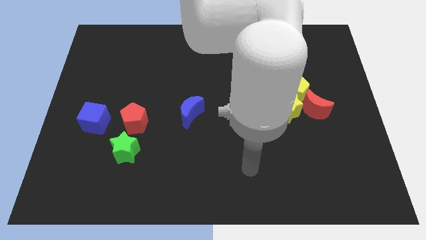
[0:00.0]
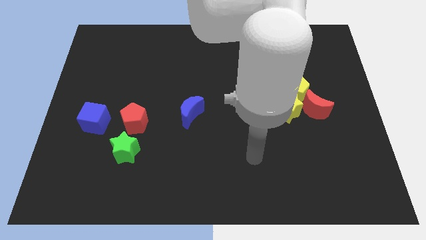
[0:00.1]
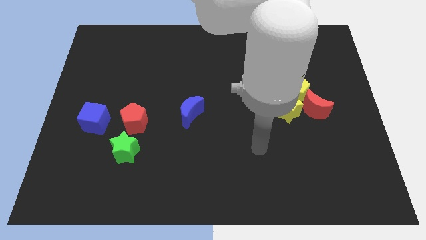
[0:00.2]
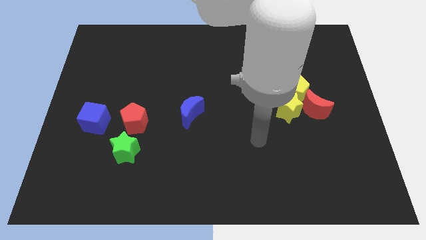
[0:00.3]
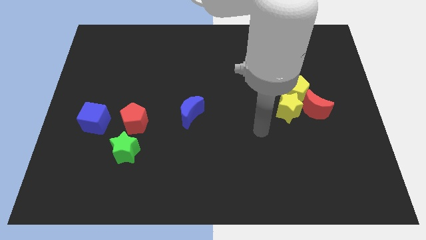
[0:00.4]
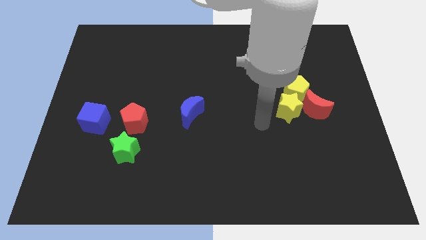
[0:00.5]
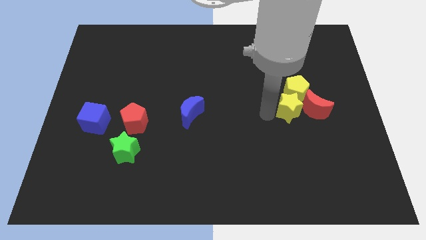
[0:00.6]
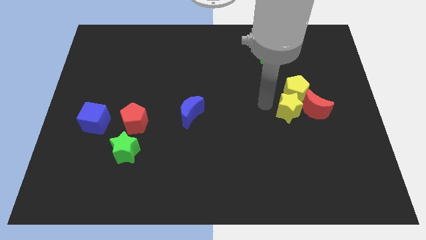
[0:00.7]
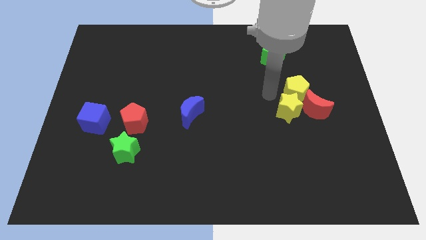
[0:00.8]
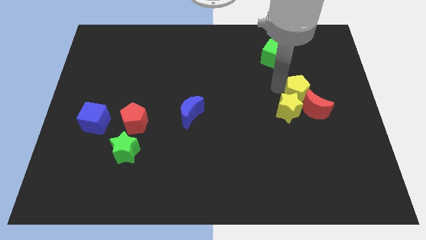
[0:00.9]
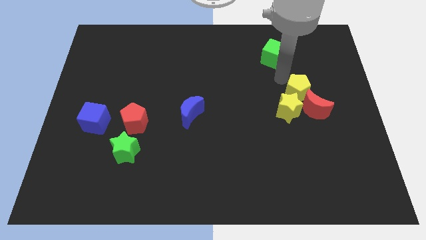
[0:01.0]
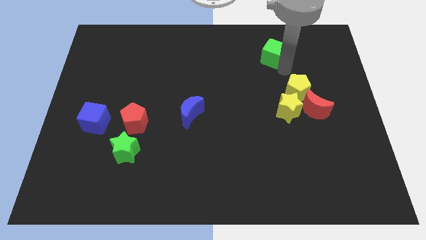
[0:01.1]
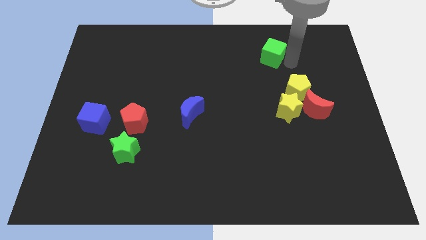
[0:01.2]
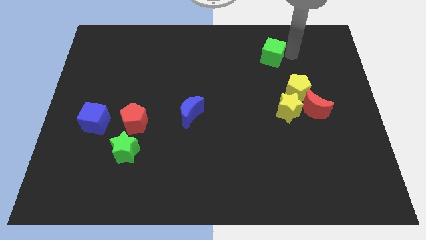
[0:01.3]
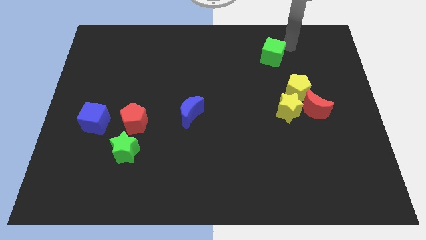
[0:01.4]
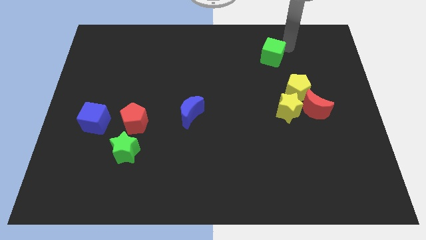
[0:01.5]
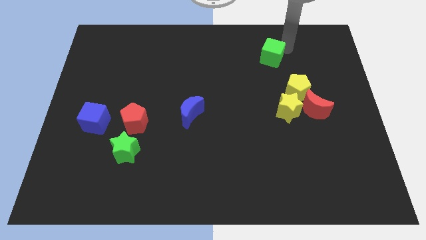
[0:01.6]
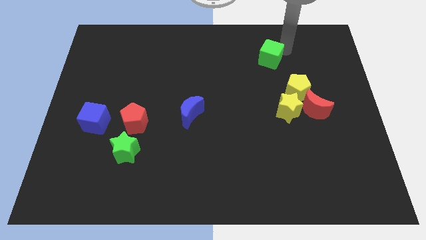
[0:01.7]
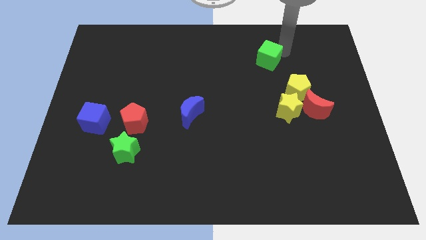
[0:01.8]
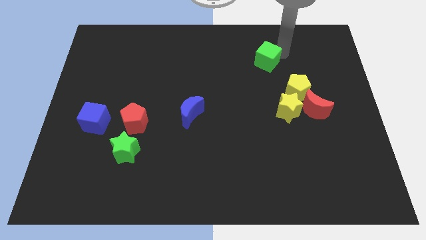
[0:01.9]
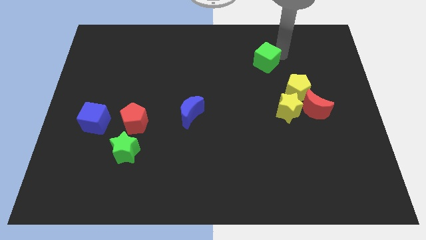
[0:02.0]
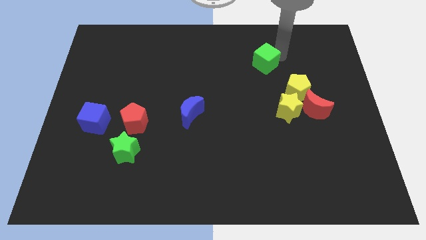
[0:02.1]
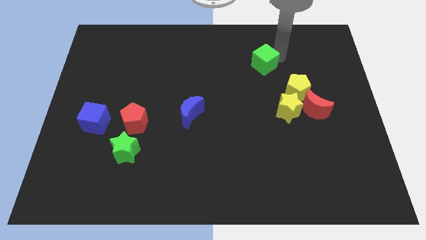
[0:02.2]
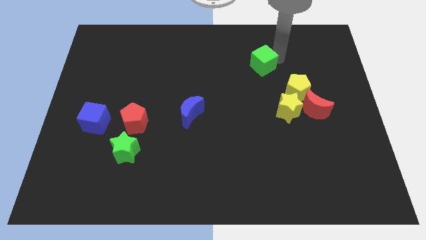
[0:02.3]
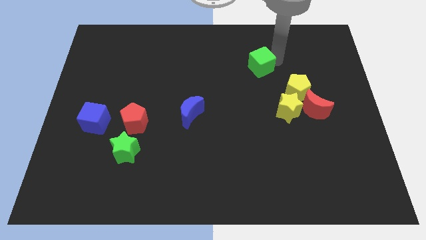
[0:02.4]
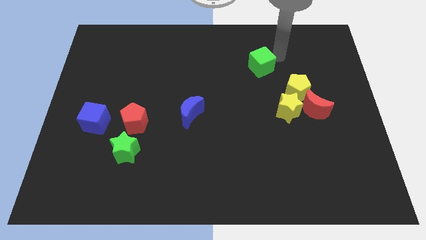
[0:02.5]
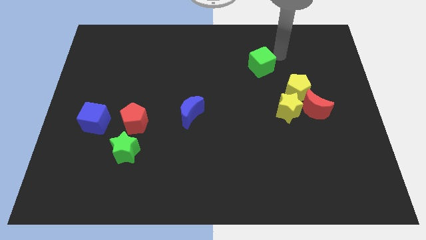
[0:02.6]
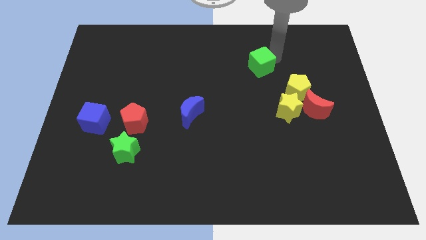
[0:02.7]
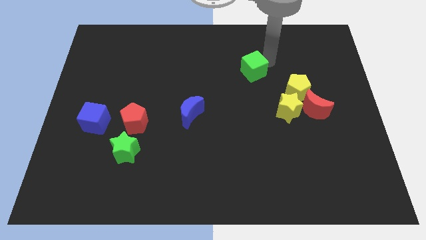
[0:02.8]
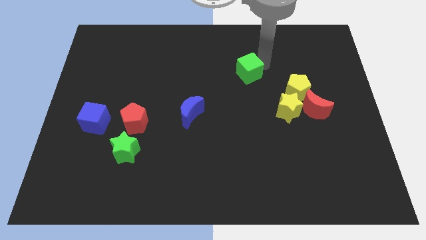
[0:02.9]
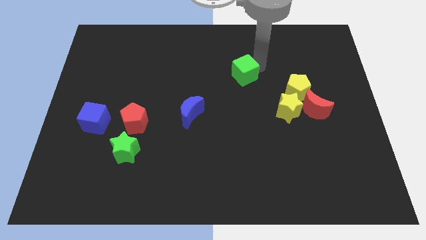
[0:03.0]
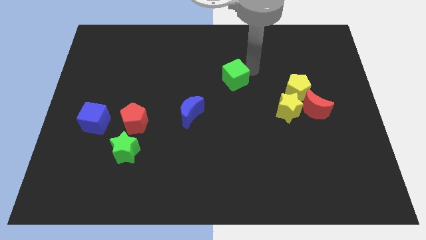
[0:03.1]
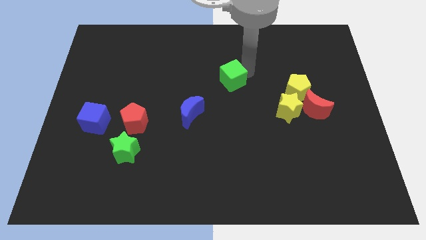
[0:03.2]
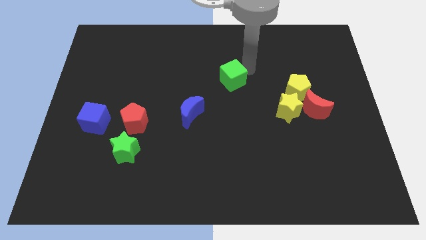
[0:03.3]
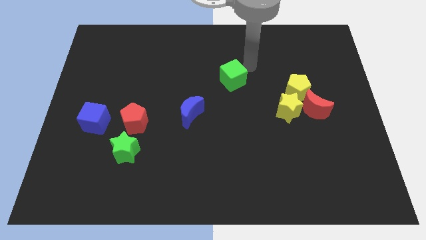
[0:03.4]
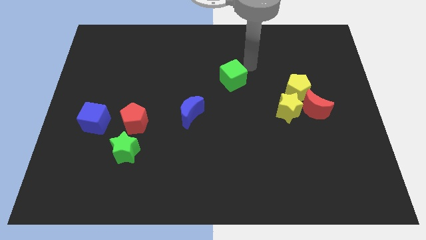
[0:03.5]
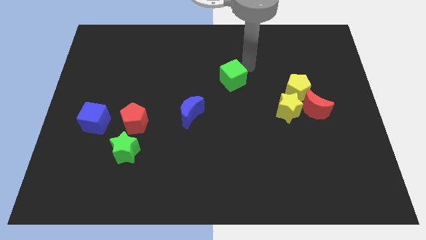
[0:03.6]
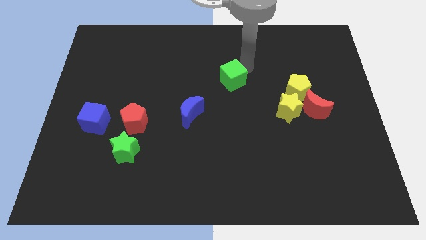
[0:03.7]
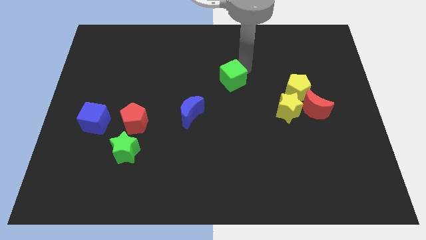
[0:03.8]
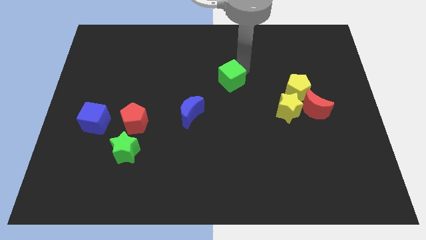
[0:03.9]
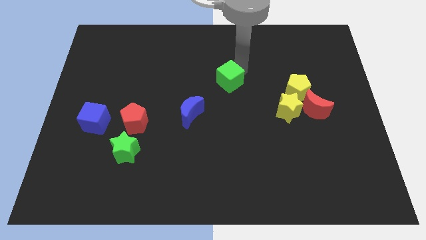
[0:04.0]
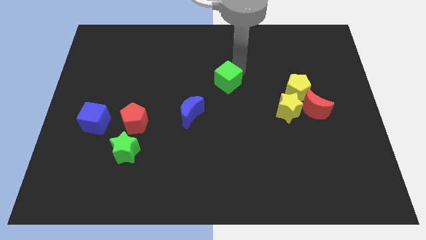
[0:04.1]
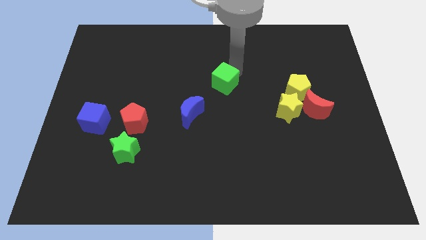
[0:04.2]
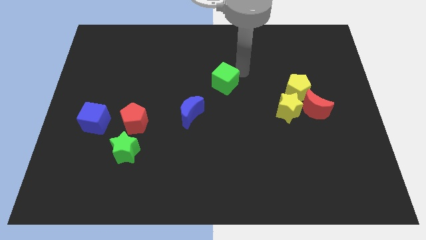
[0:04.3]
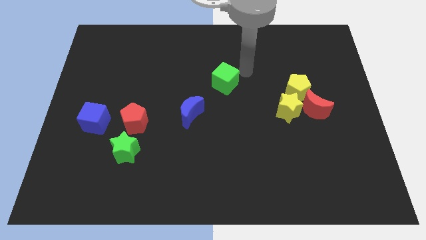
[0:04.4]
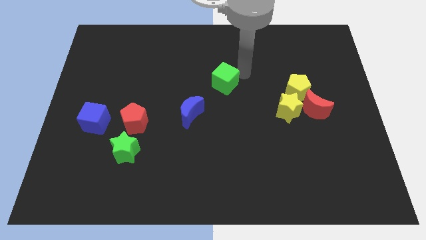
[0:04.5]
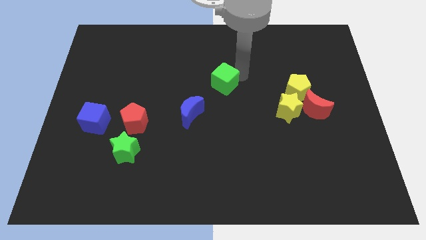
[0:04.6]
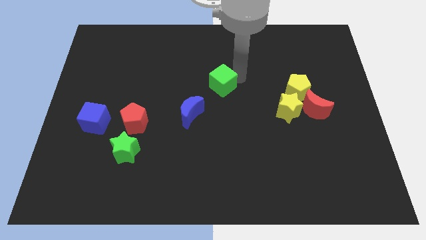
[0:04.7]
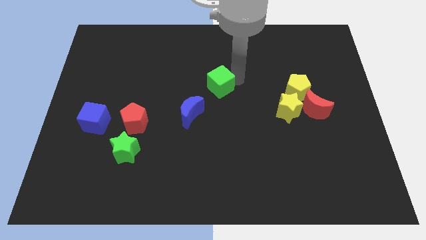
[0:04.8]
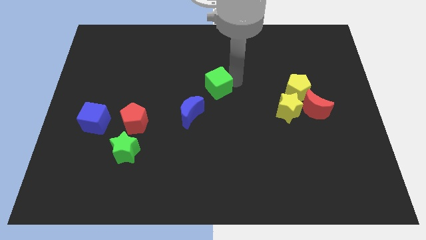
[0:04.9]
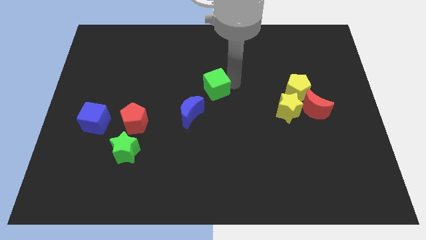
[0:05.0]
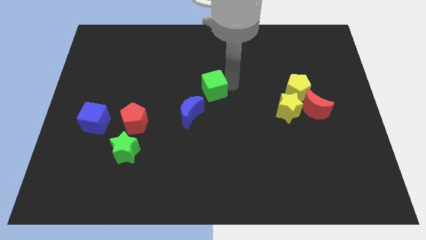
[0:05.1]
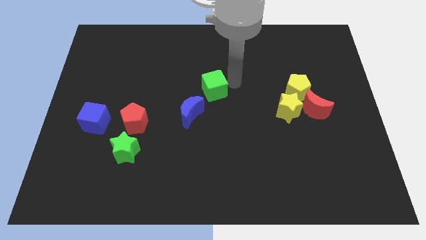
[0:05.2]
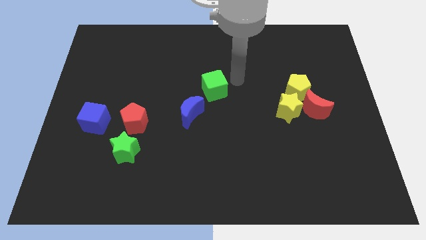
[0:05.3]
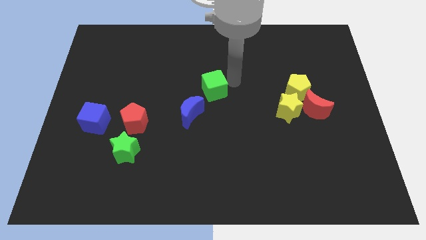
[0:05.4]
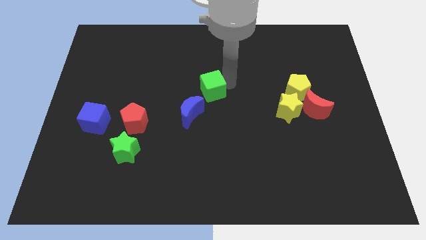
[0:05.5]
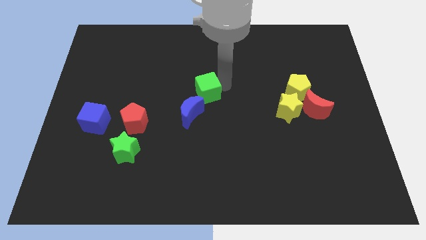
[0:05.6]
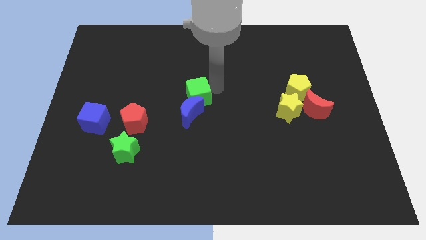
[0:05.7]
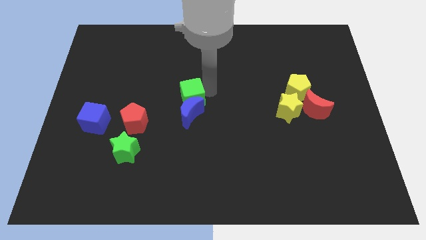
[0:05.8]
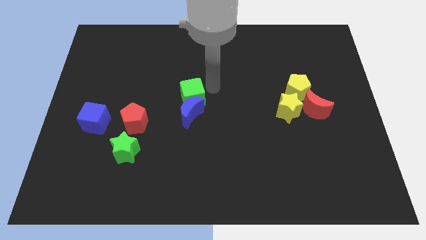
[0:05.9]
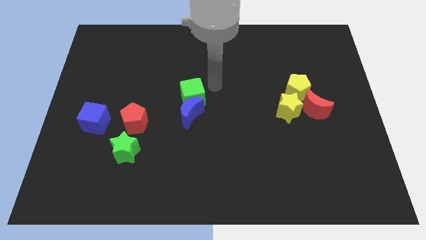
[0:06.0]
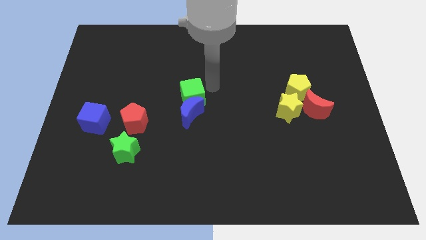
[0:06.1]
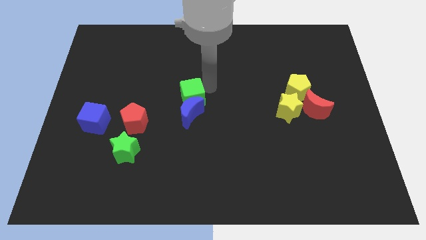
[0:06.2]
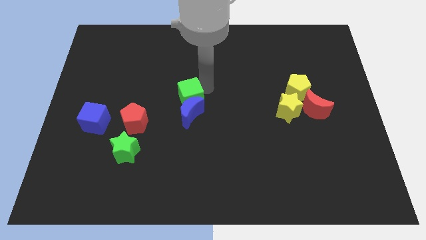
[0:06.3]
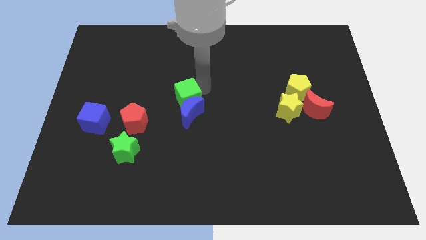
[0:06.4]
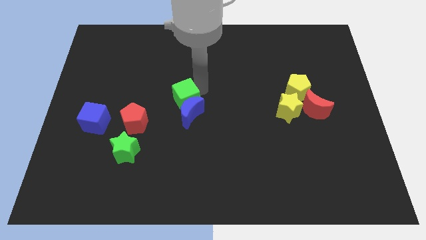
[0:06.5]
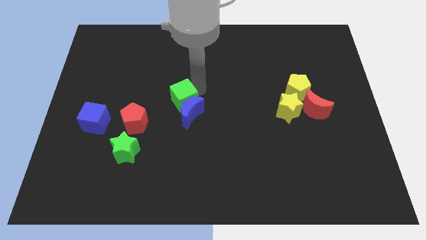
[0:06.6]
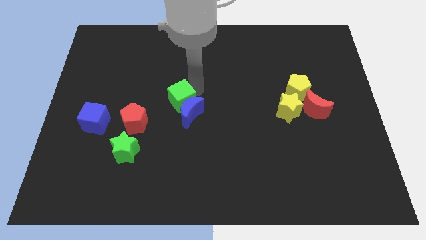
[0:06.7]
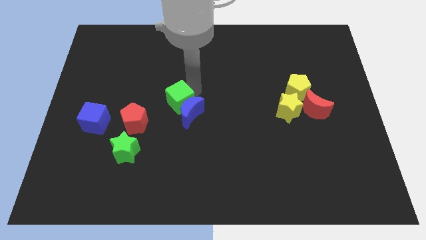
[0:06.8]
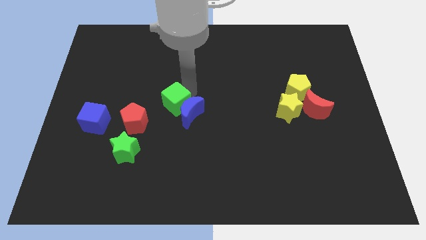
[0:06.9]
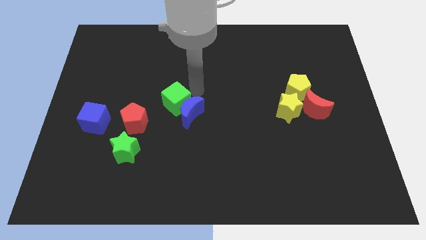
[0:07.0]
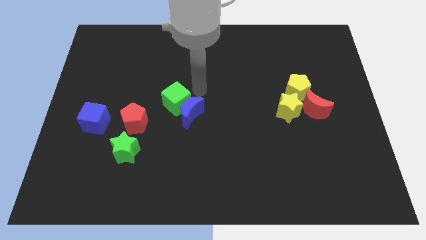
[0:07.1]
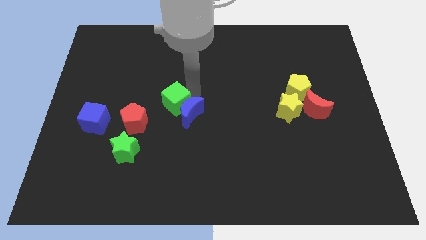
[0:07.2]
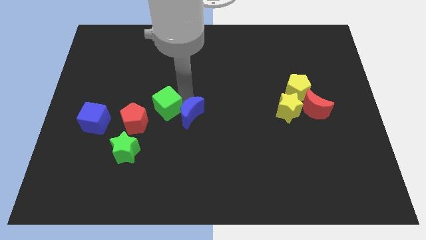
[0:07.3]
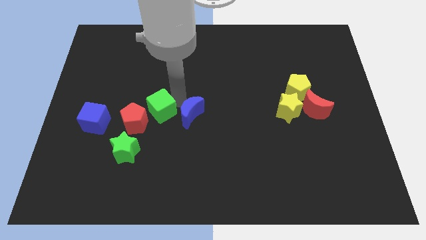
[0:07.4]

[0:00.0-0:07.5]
move the green cube just right of the blue cube
